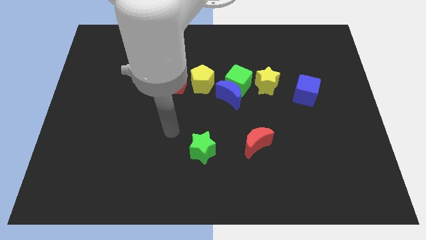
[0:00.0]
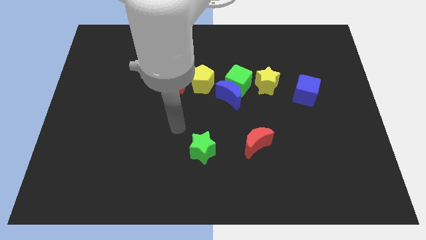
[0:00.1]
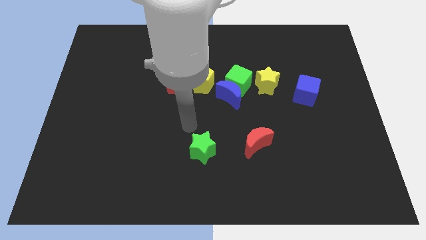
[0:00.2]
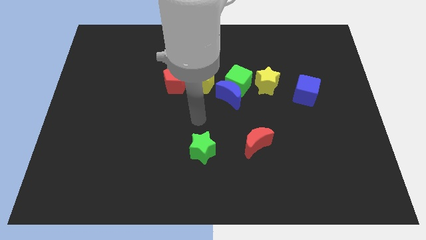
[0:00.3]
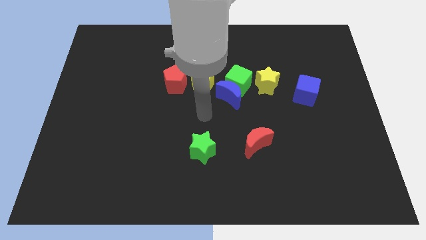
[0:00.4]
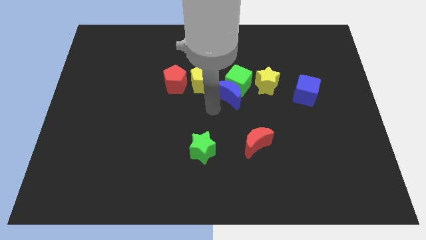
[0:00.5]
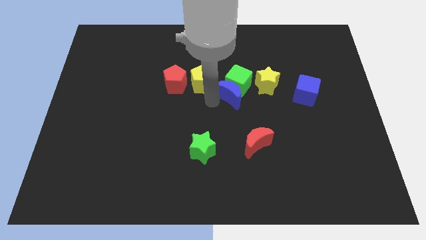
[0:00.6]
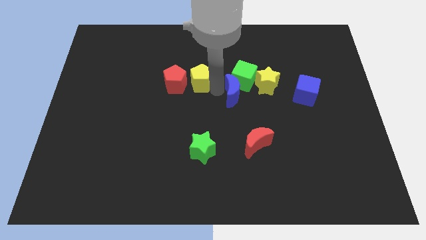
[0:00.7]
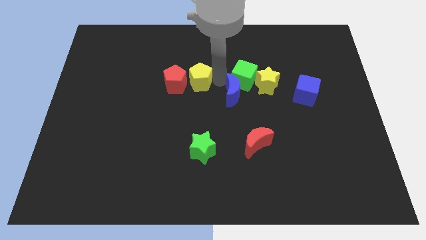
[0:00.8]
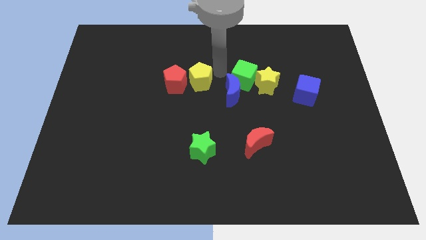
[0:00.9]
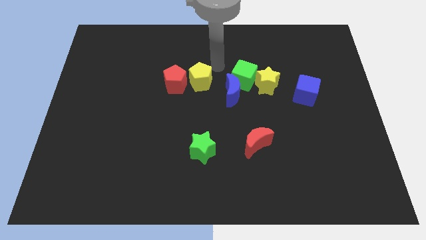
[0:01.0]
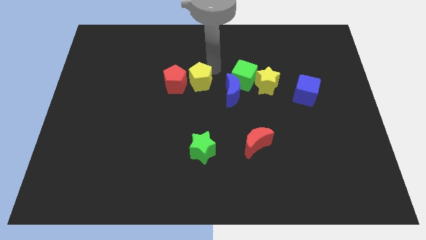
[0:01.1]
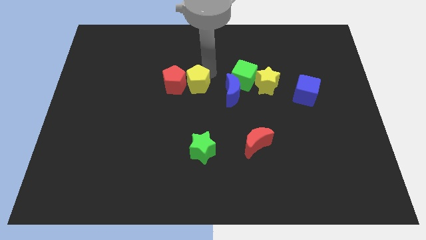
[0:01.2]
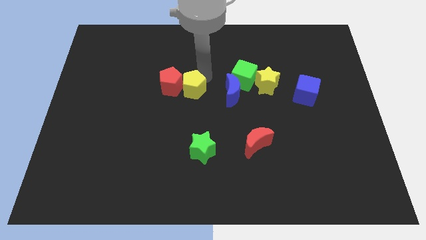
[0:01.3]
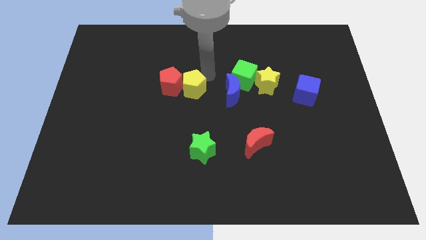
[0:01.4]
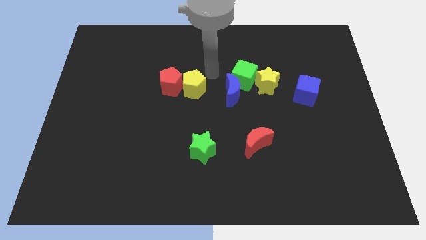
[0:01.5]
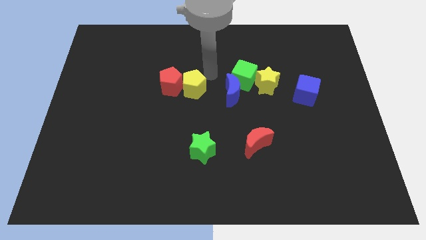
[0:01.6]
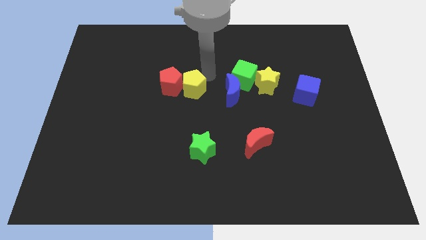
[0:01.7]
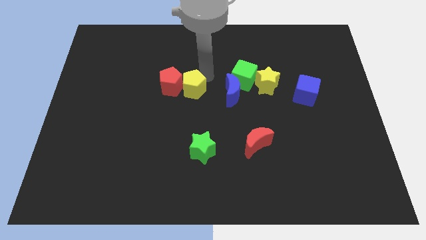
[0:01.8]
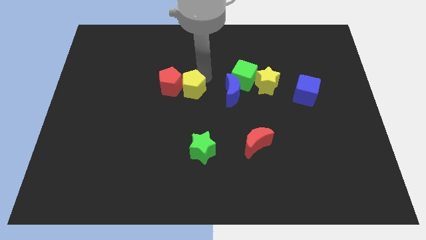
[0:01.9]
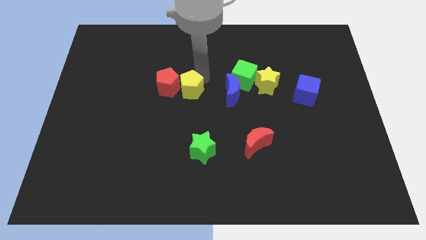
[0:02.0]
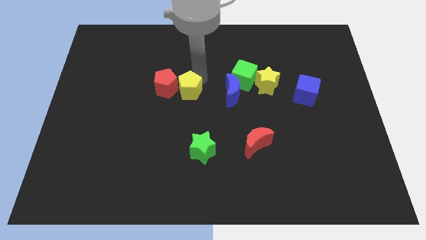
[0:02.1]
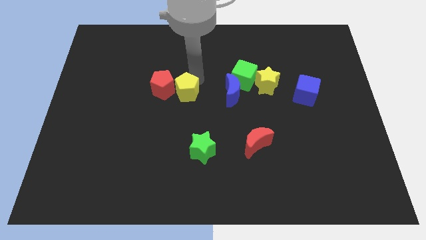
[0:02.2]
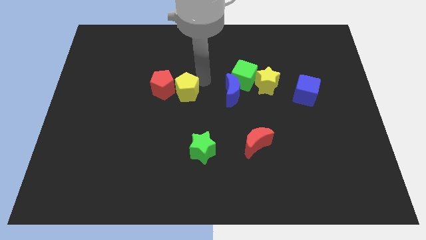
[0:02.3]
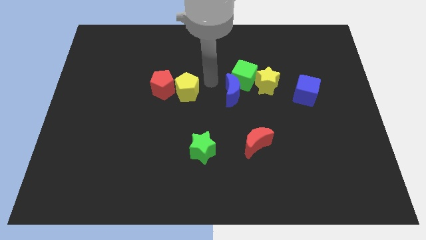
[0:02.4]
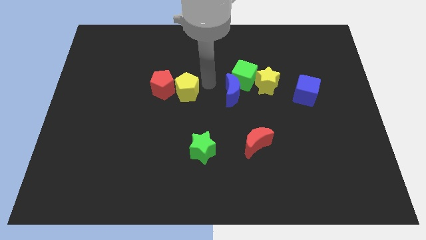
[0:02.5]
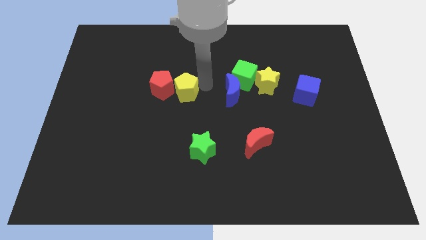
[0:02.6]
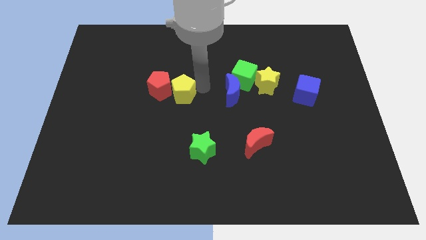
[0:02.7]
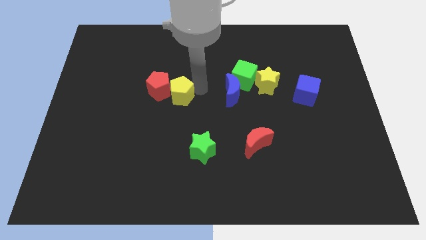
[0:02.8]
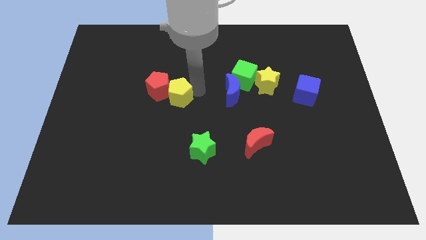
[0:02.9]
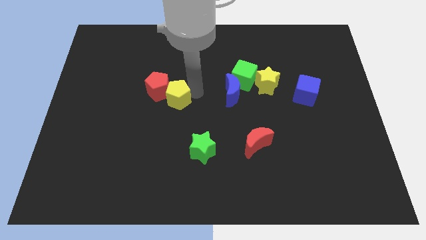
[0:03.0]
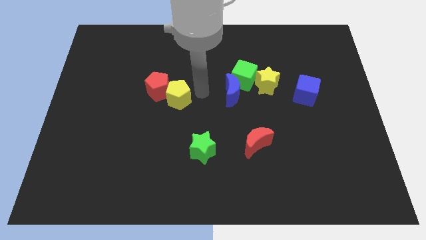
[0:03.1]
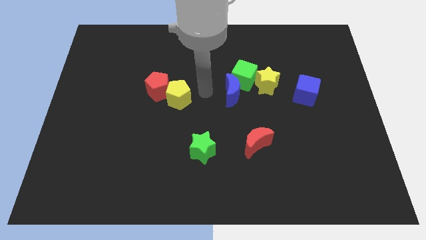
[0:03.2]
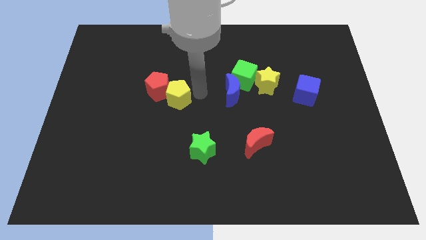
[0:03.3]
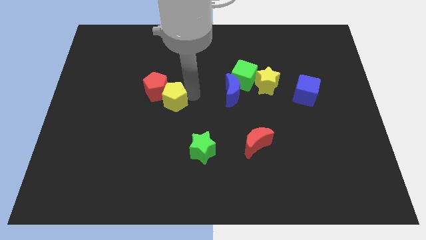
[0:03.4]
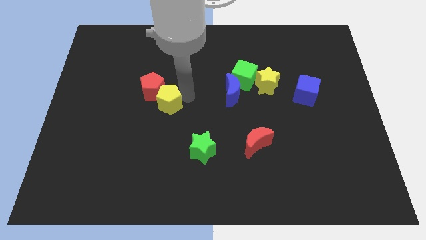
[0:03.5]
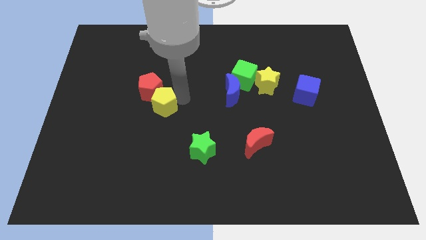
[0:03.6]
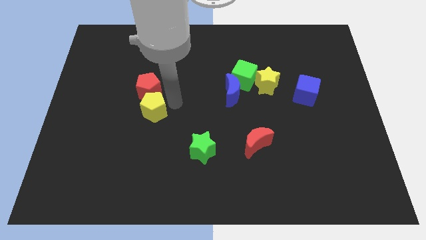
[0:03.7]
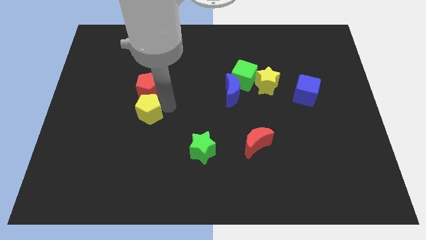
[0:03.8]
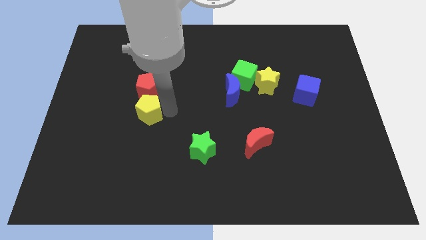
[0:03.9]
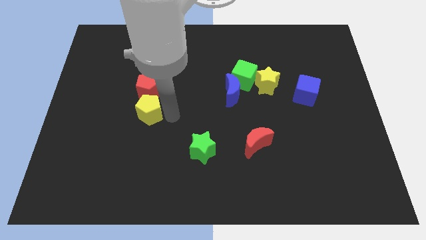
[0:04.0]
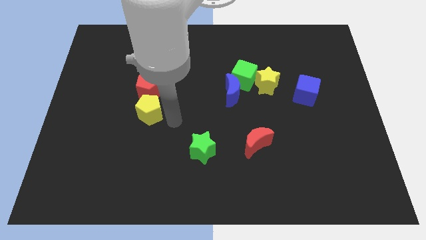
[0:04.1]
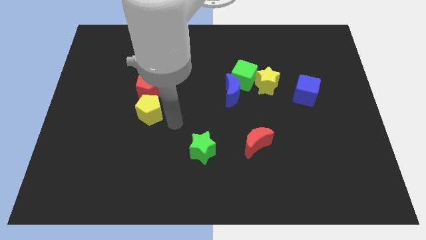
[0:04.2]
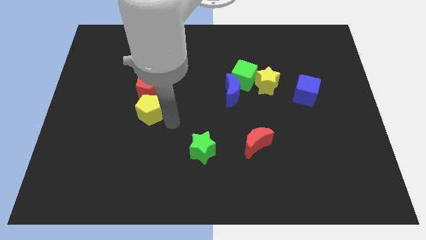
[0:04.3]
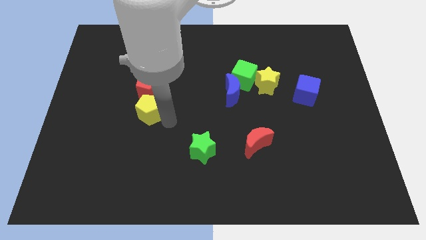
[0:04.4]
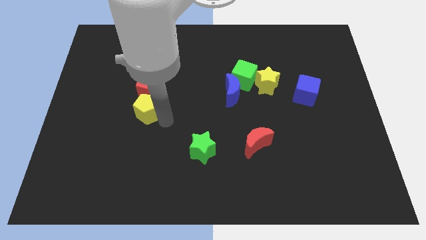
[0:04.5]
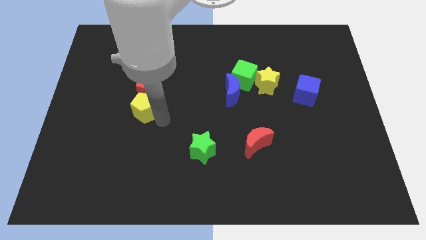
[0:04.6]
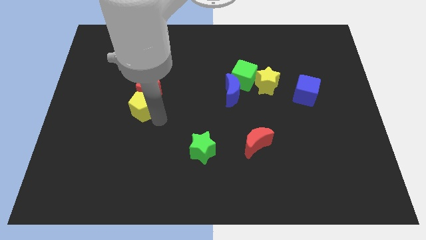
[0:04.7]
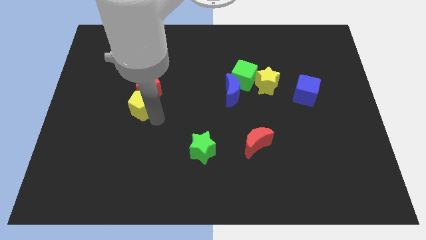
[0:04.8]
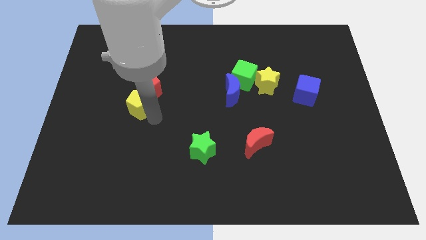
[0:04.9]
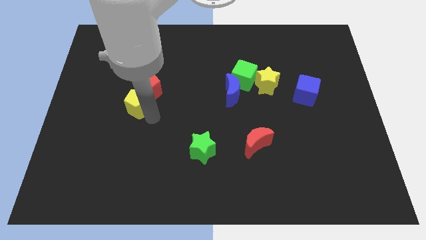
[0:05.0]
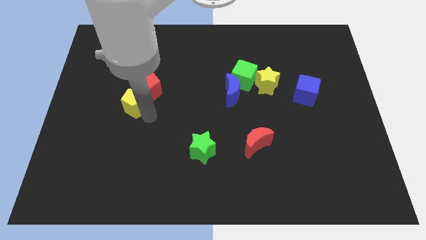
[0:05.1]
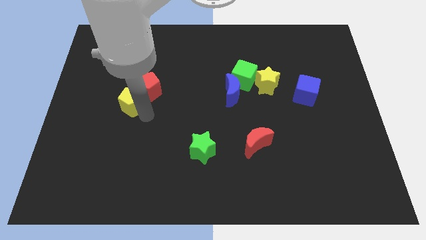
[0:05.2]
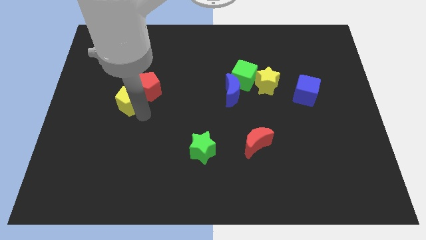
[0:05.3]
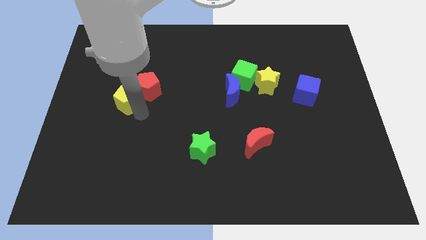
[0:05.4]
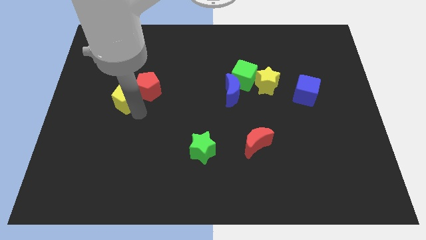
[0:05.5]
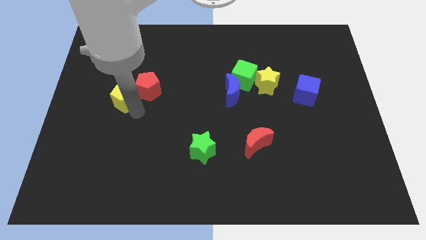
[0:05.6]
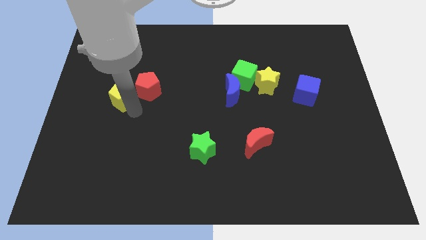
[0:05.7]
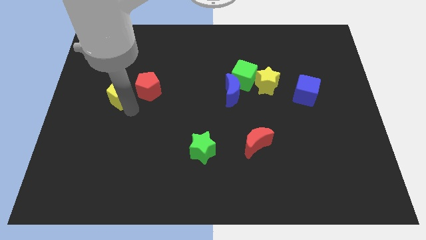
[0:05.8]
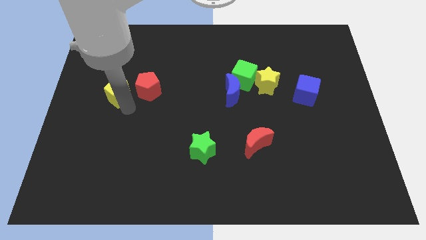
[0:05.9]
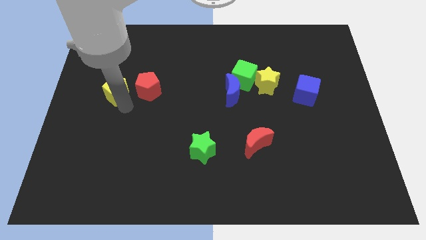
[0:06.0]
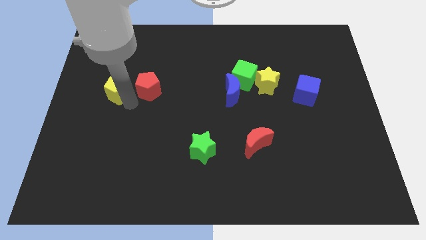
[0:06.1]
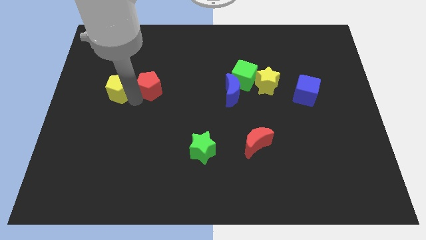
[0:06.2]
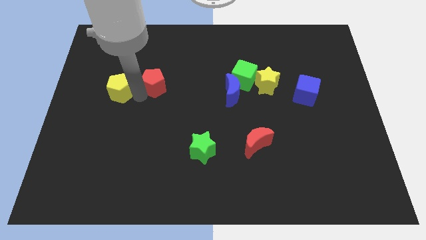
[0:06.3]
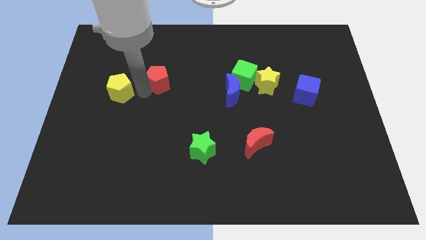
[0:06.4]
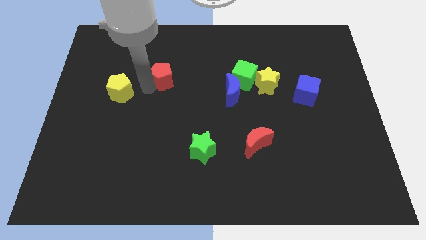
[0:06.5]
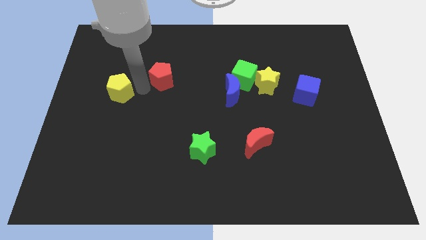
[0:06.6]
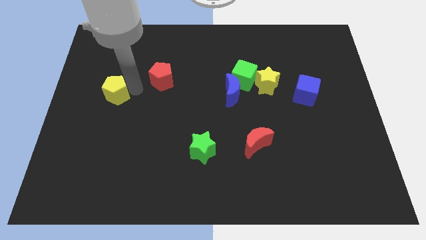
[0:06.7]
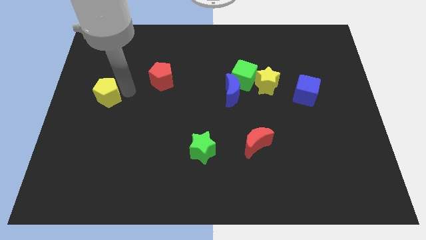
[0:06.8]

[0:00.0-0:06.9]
slide the yellow pentagon to the center left
